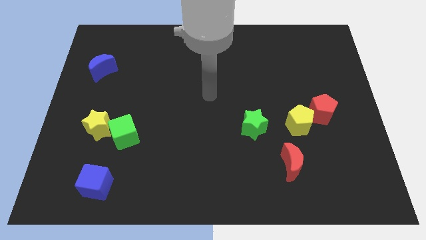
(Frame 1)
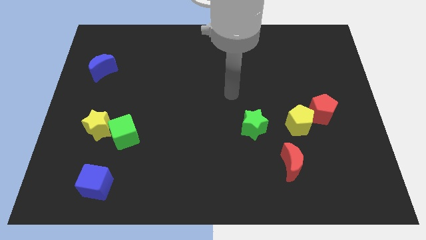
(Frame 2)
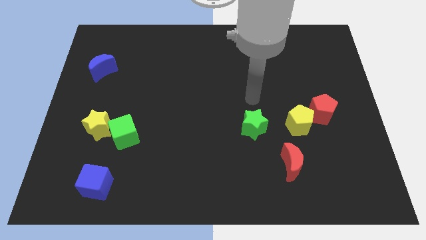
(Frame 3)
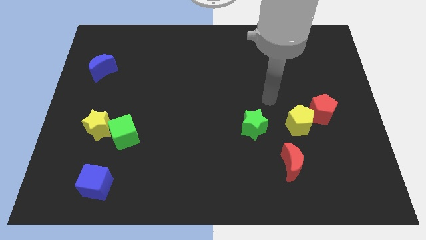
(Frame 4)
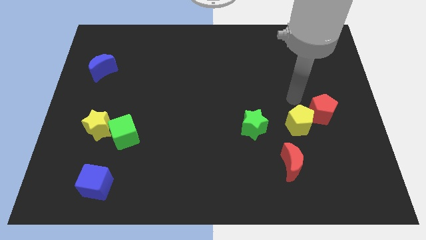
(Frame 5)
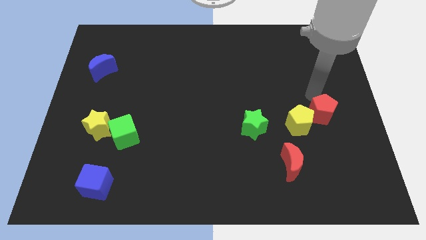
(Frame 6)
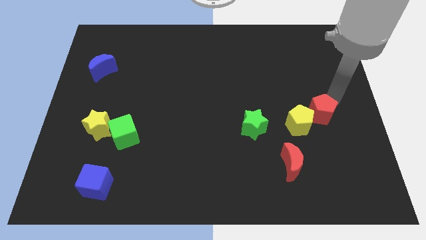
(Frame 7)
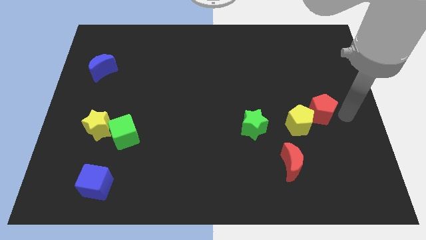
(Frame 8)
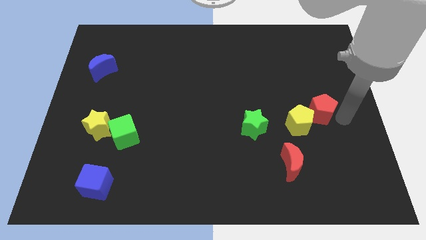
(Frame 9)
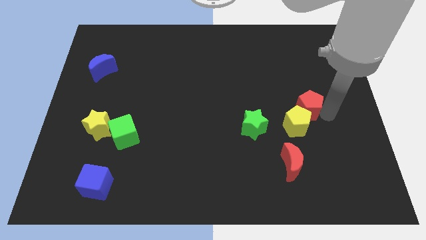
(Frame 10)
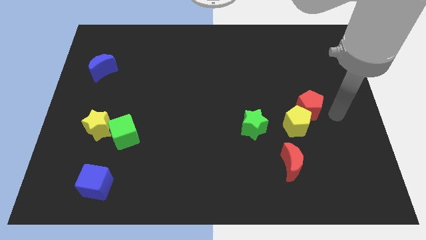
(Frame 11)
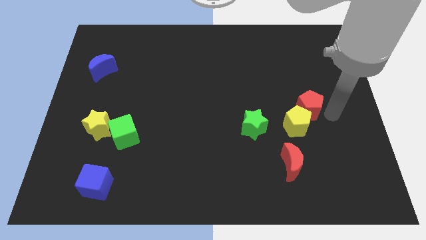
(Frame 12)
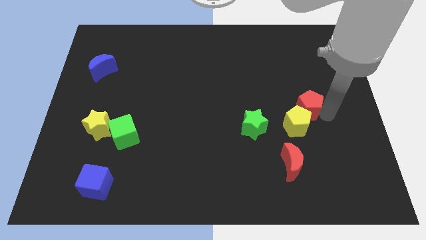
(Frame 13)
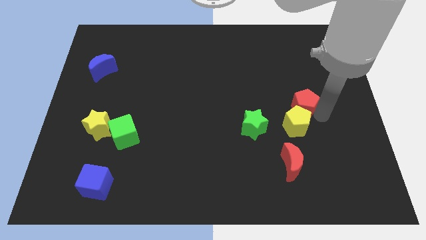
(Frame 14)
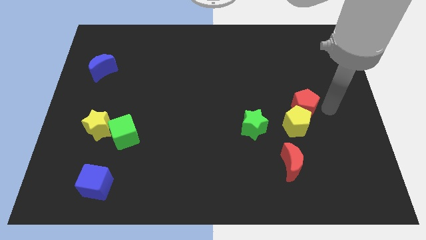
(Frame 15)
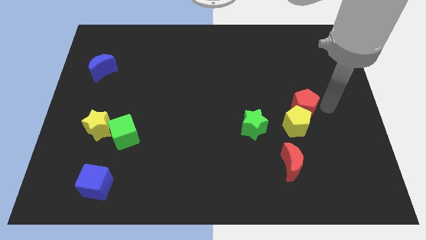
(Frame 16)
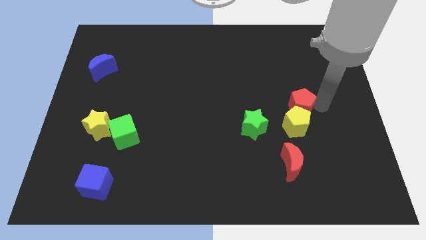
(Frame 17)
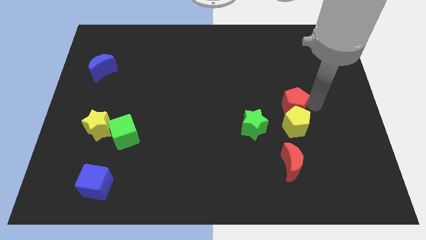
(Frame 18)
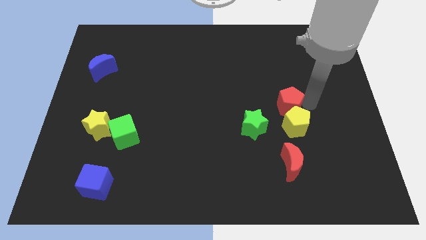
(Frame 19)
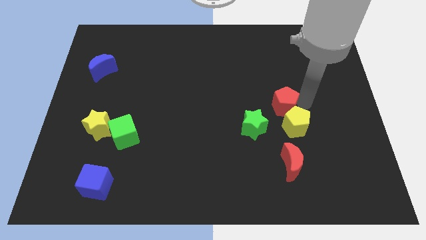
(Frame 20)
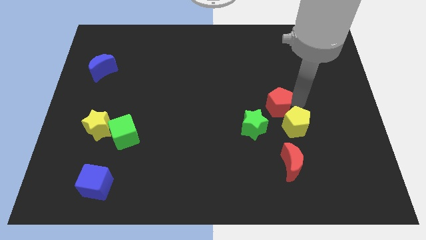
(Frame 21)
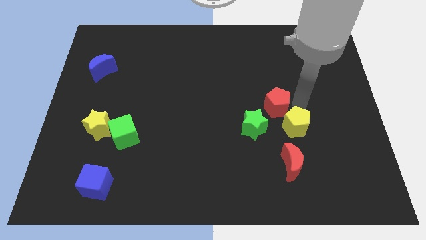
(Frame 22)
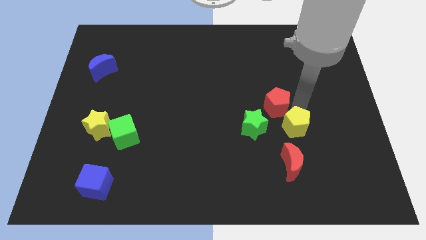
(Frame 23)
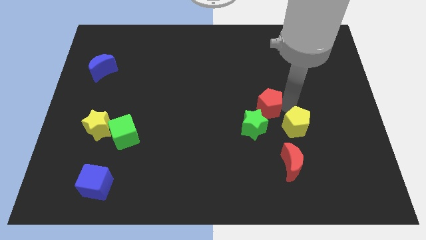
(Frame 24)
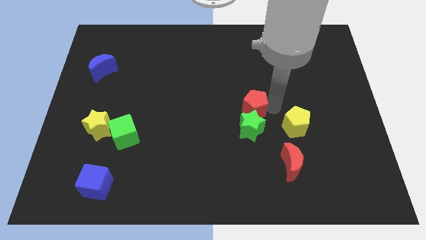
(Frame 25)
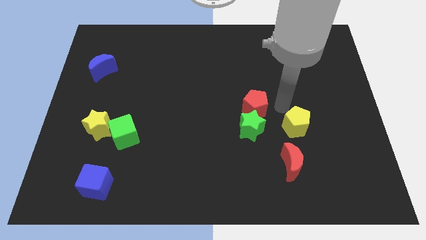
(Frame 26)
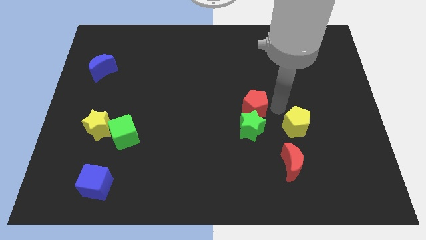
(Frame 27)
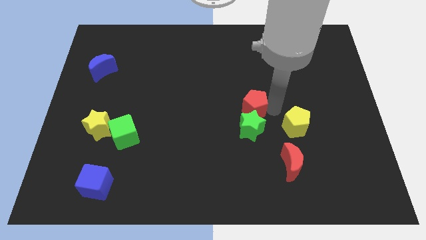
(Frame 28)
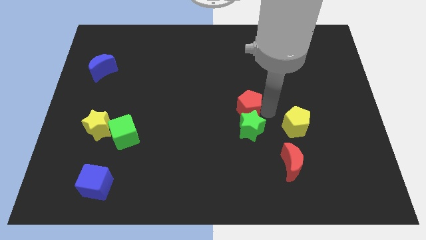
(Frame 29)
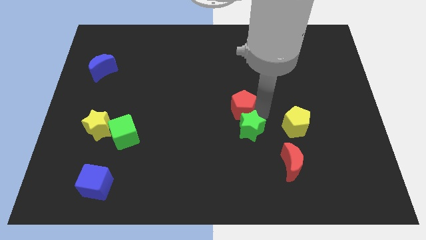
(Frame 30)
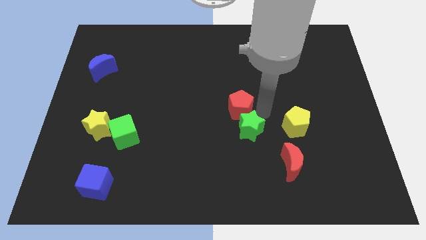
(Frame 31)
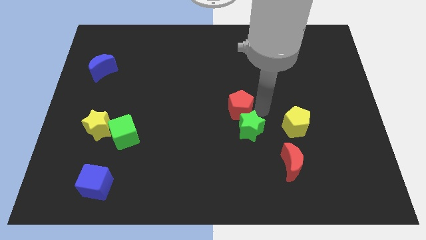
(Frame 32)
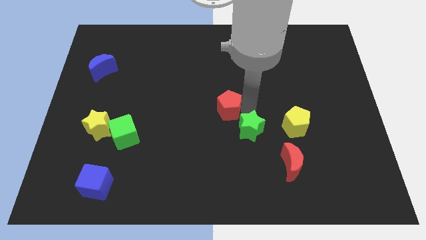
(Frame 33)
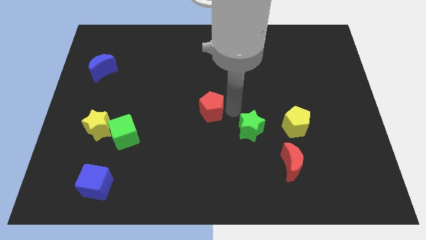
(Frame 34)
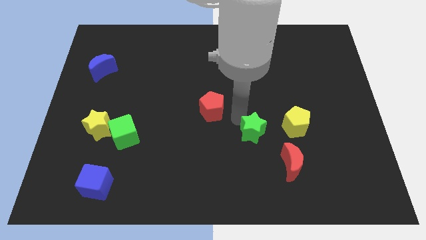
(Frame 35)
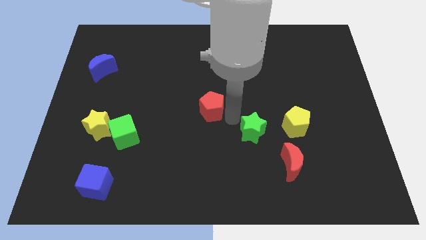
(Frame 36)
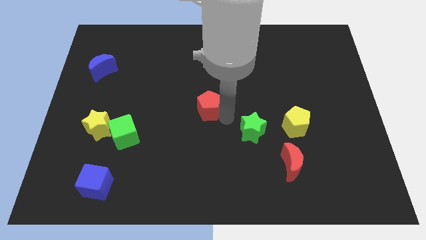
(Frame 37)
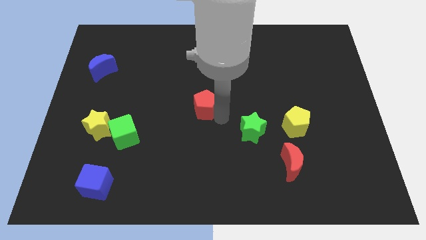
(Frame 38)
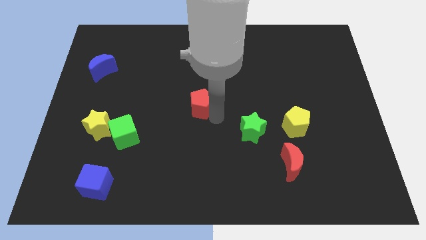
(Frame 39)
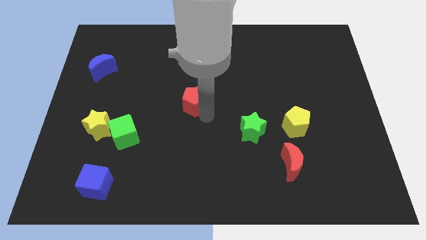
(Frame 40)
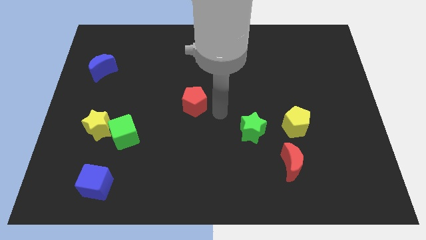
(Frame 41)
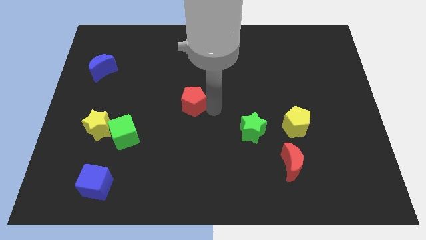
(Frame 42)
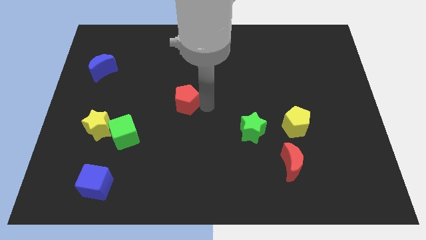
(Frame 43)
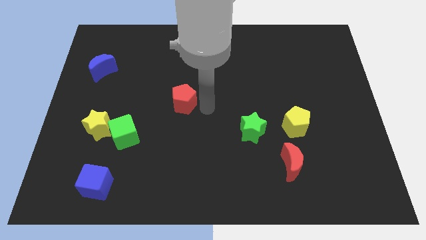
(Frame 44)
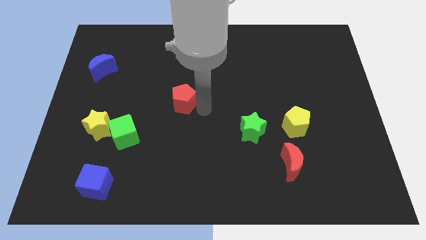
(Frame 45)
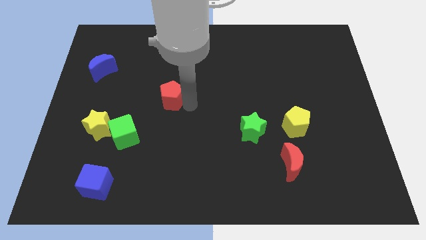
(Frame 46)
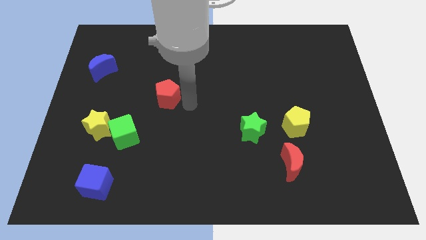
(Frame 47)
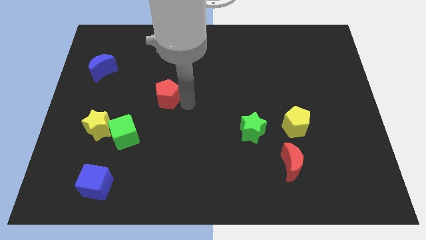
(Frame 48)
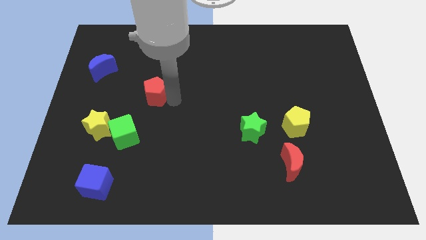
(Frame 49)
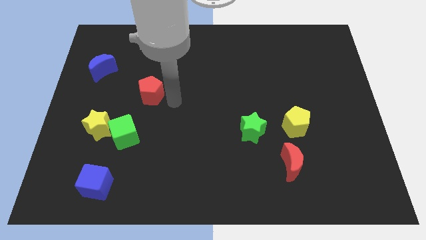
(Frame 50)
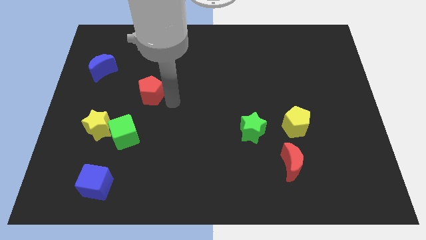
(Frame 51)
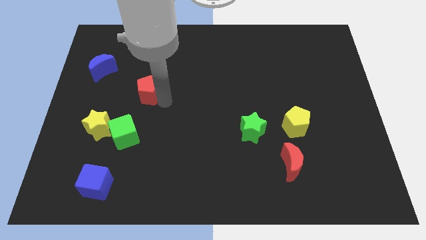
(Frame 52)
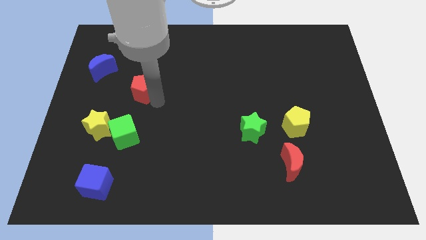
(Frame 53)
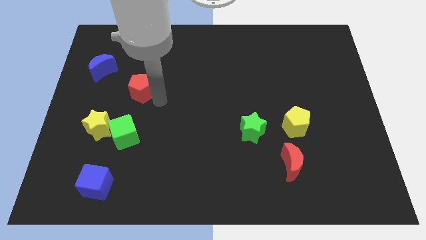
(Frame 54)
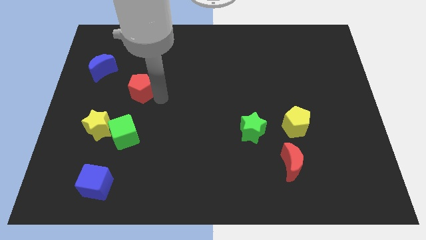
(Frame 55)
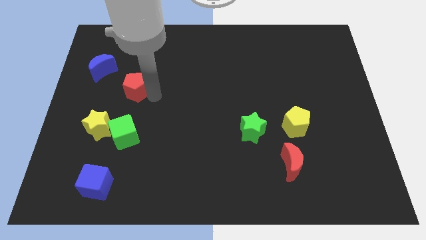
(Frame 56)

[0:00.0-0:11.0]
push the red pentagon to the bottom right of the blue moon

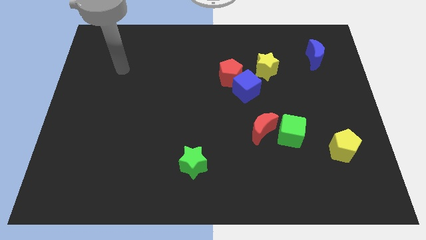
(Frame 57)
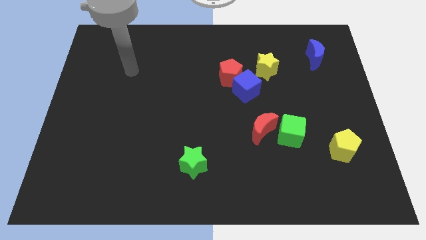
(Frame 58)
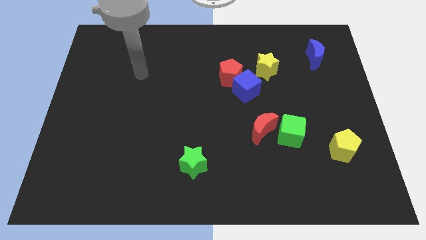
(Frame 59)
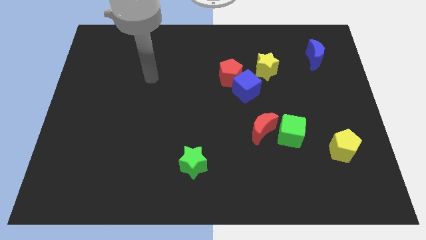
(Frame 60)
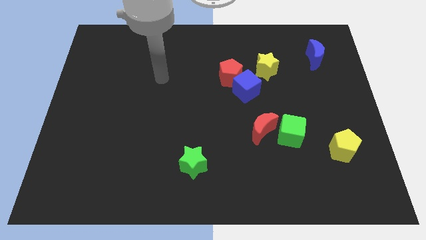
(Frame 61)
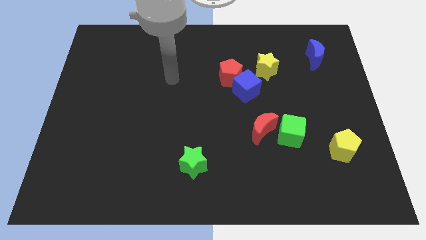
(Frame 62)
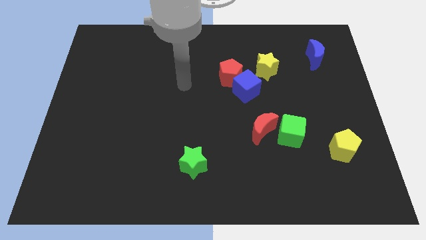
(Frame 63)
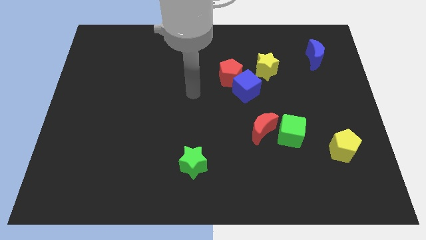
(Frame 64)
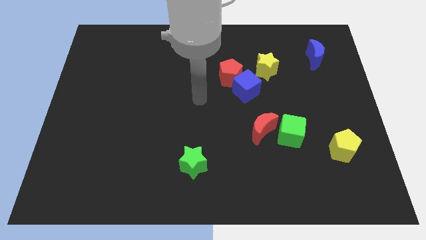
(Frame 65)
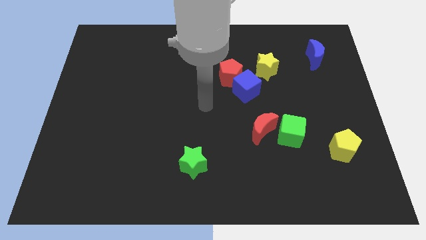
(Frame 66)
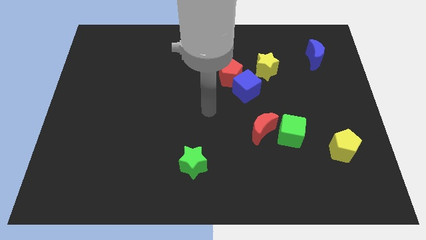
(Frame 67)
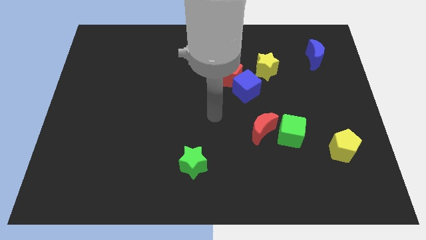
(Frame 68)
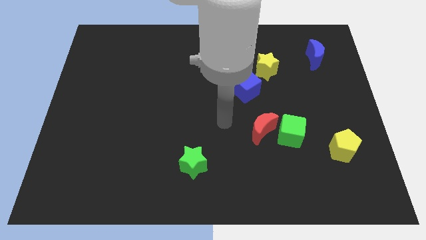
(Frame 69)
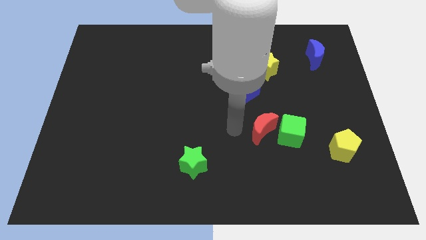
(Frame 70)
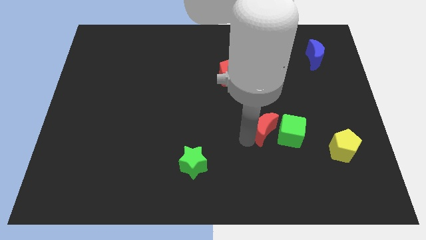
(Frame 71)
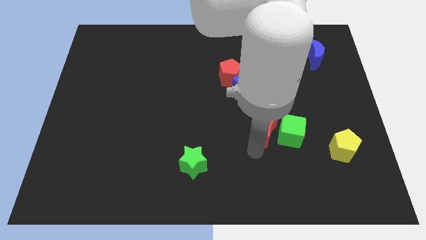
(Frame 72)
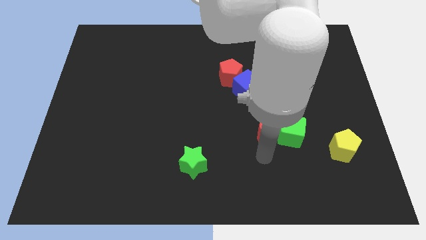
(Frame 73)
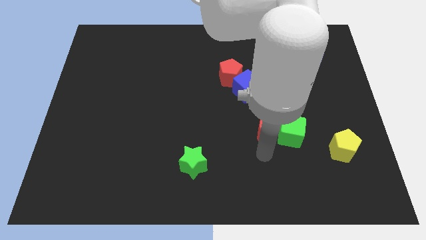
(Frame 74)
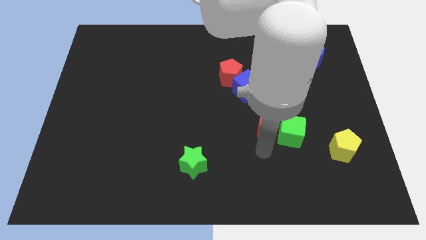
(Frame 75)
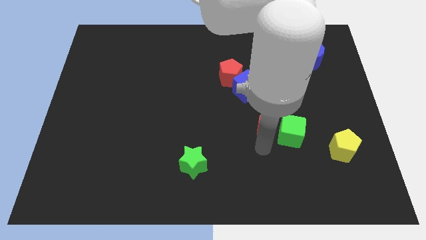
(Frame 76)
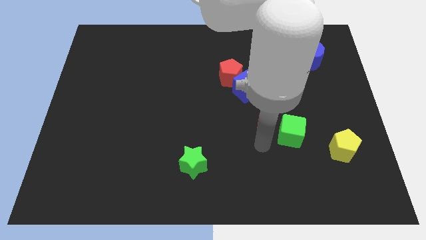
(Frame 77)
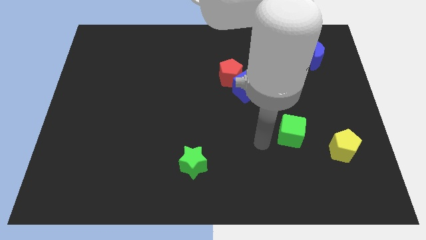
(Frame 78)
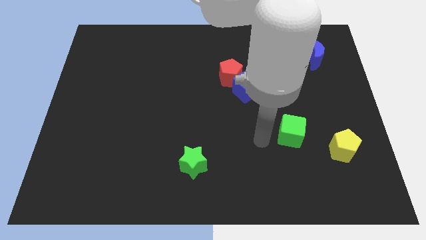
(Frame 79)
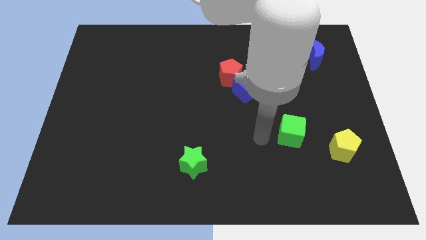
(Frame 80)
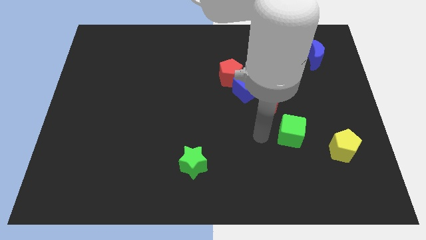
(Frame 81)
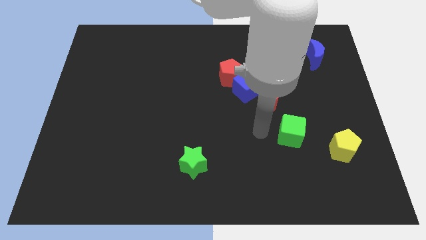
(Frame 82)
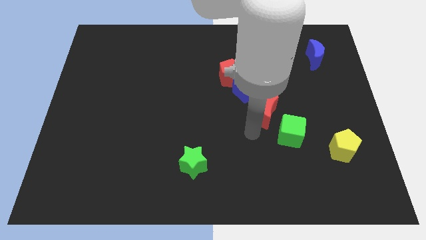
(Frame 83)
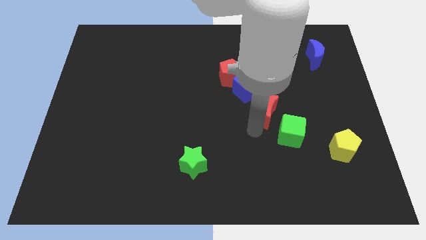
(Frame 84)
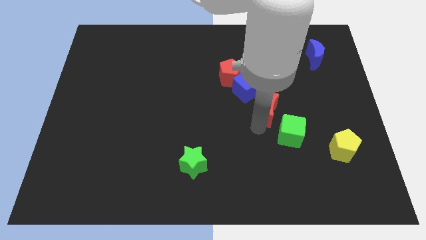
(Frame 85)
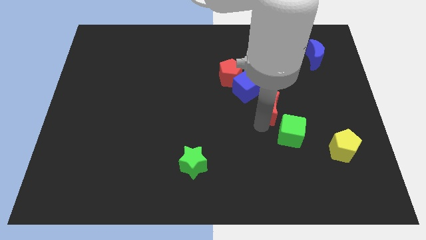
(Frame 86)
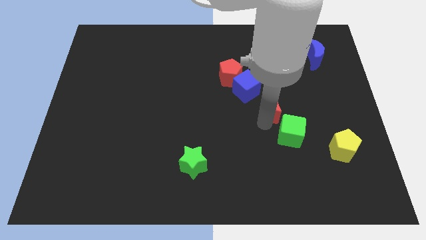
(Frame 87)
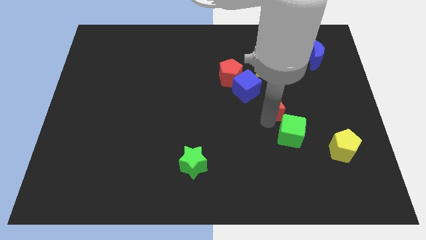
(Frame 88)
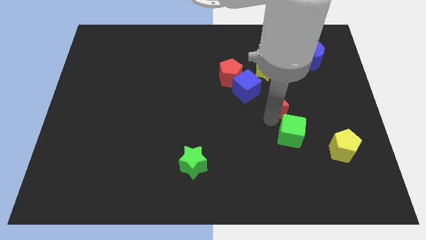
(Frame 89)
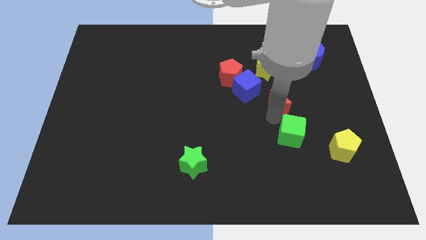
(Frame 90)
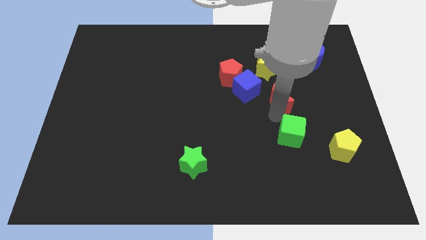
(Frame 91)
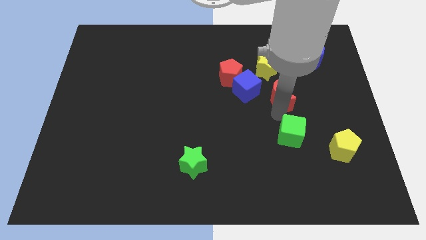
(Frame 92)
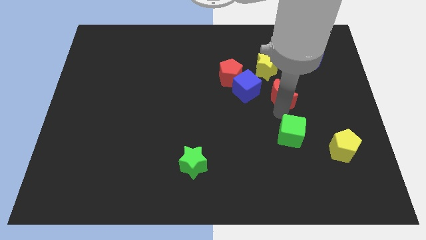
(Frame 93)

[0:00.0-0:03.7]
slide the red moon to the bottom right of the yellow star
